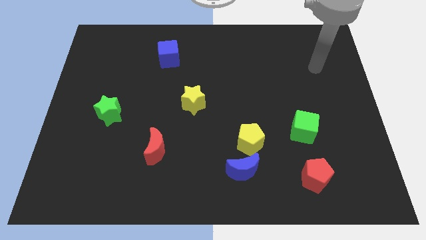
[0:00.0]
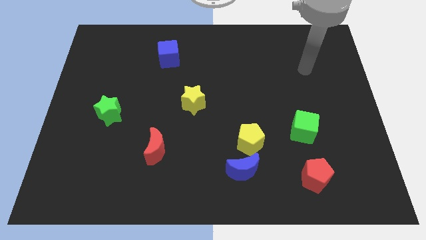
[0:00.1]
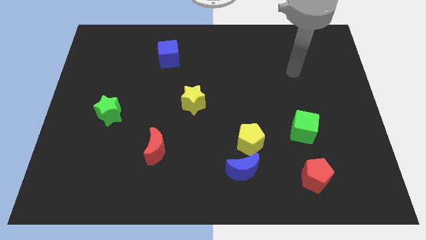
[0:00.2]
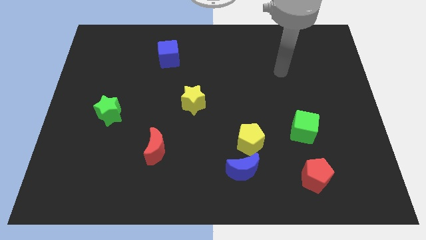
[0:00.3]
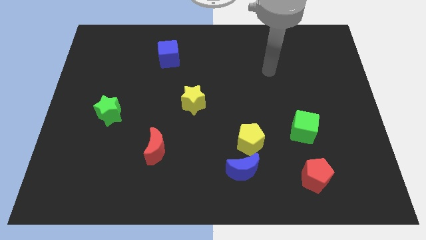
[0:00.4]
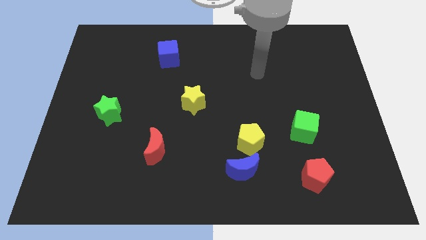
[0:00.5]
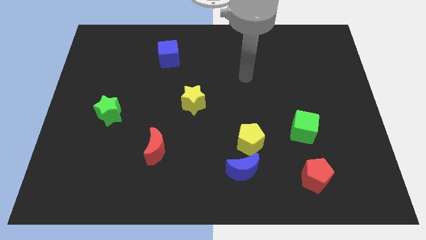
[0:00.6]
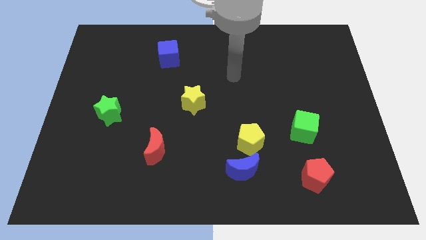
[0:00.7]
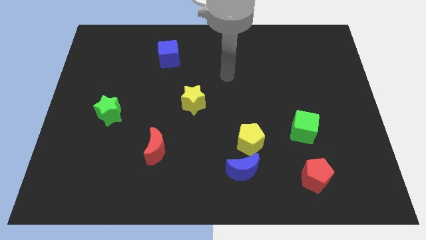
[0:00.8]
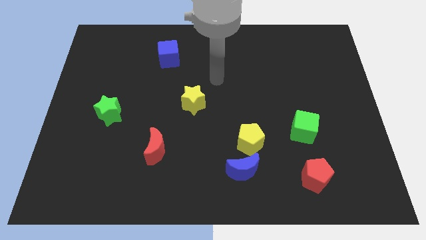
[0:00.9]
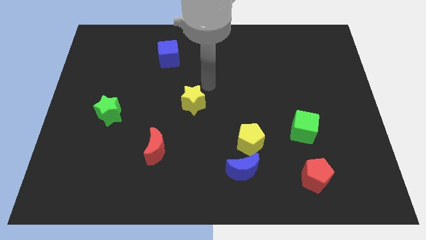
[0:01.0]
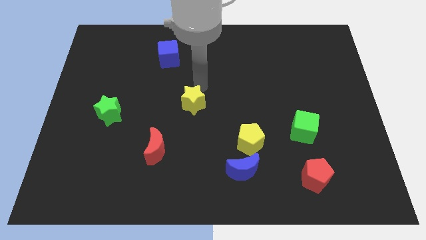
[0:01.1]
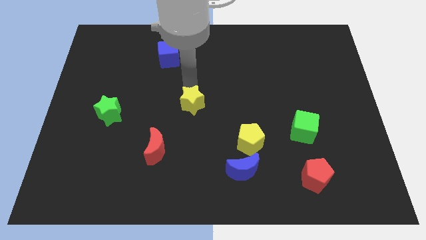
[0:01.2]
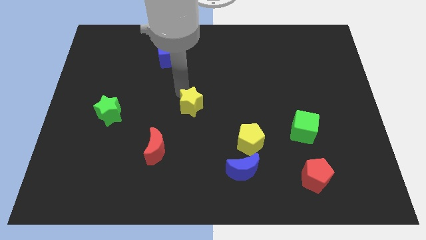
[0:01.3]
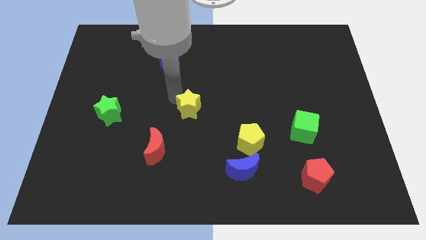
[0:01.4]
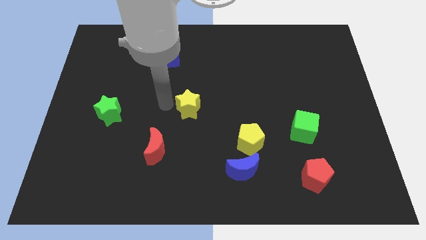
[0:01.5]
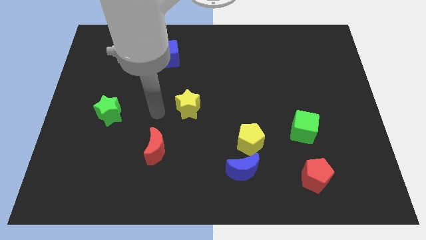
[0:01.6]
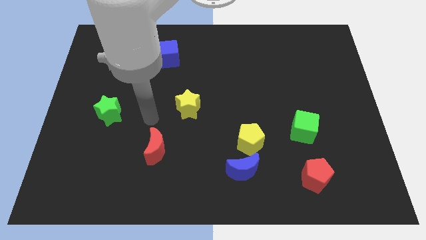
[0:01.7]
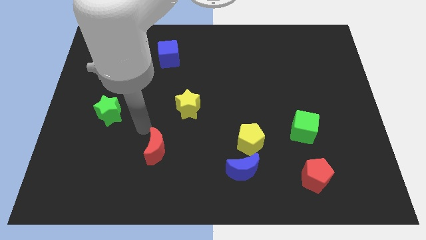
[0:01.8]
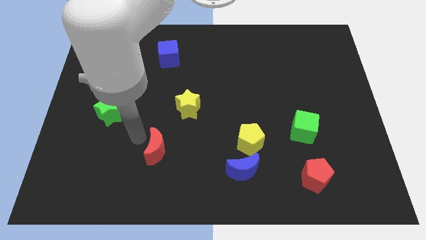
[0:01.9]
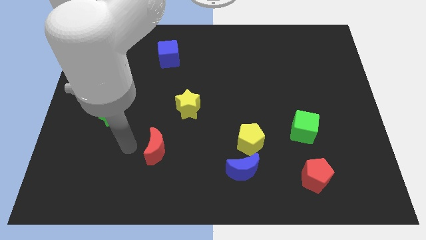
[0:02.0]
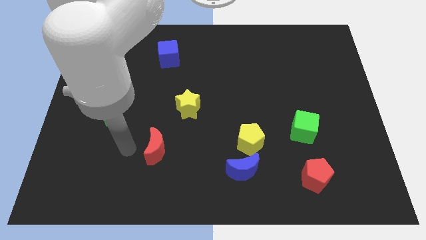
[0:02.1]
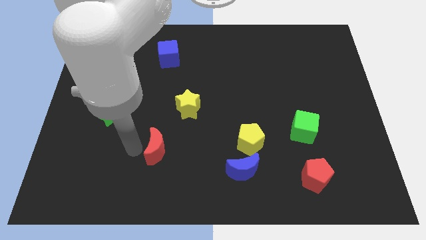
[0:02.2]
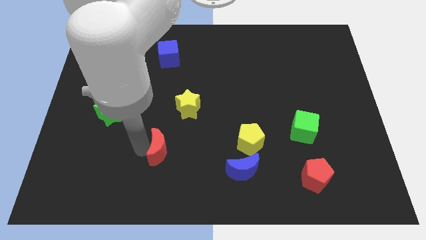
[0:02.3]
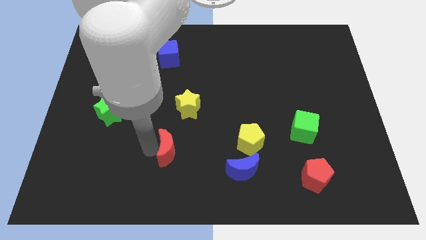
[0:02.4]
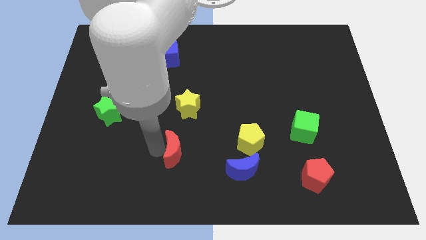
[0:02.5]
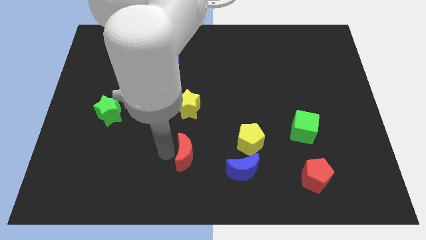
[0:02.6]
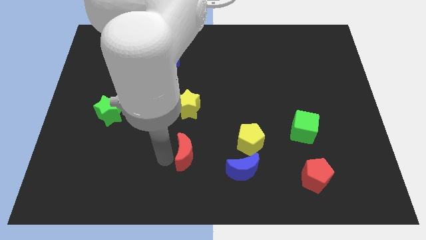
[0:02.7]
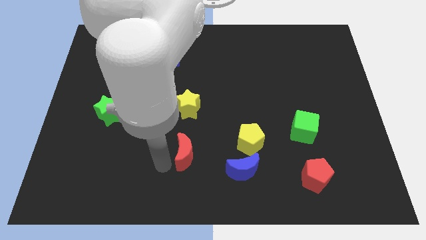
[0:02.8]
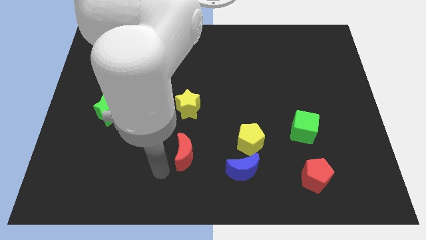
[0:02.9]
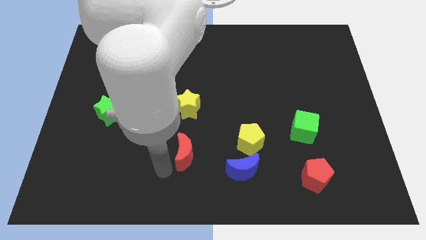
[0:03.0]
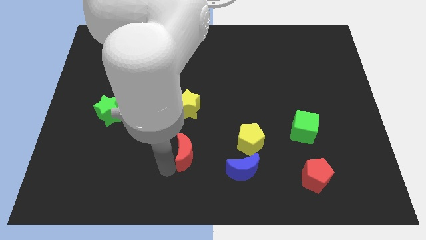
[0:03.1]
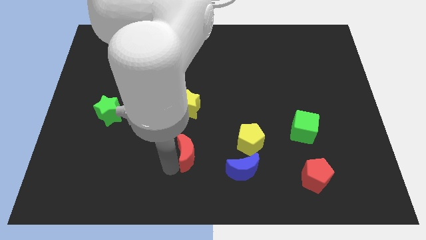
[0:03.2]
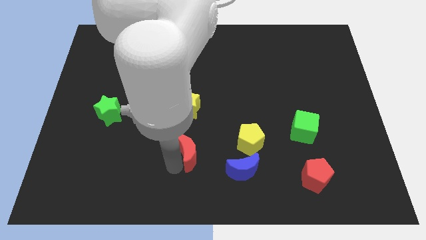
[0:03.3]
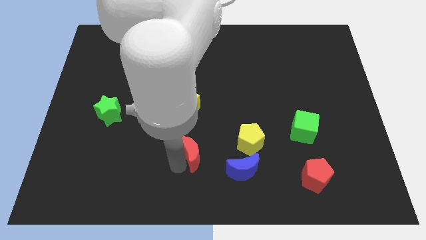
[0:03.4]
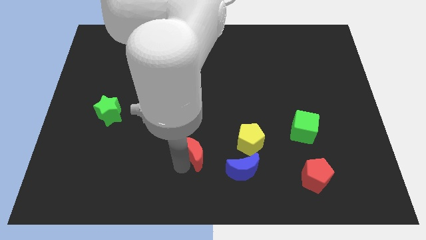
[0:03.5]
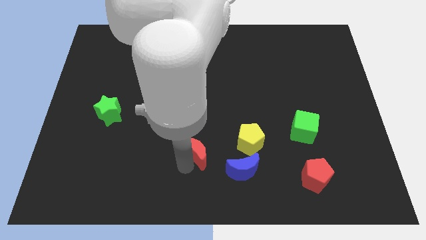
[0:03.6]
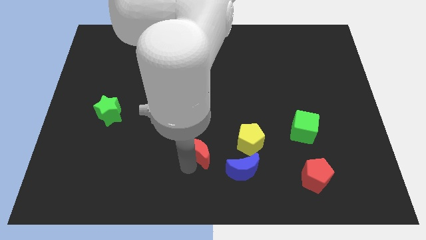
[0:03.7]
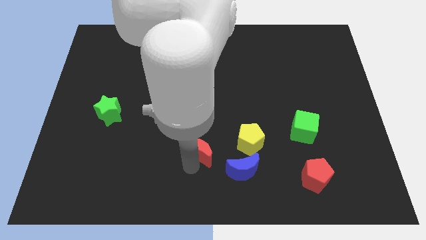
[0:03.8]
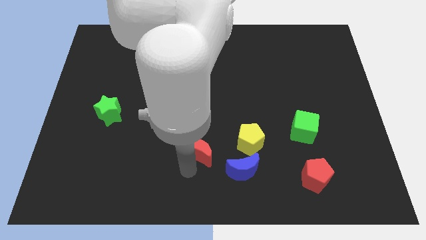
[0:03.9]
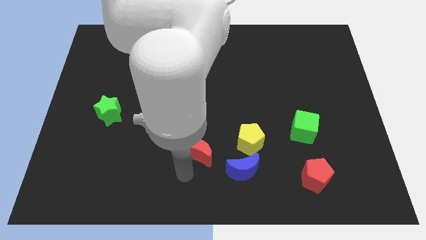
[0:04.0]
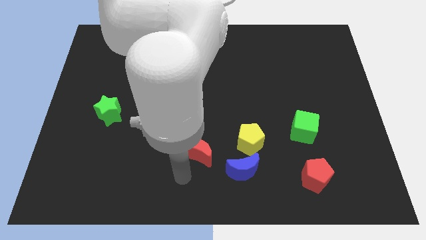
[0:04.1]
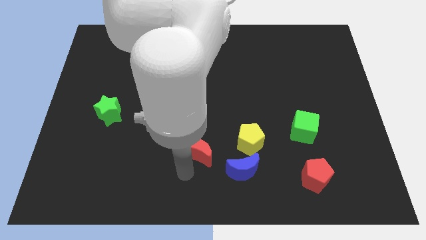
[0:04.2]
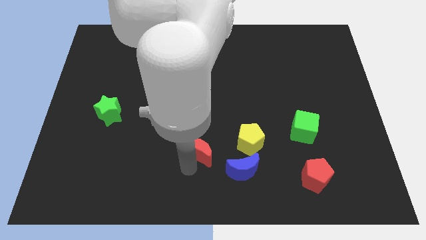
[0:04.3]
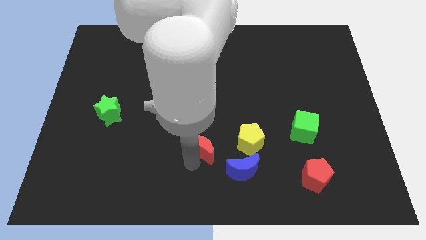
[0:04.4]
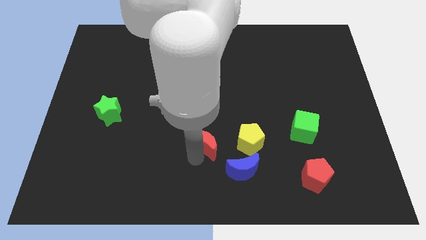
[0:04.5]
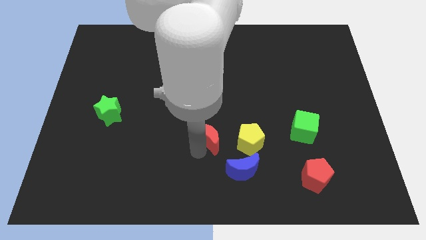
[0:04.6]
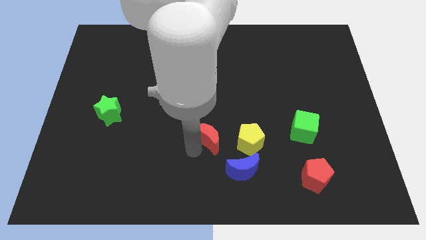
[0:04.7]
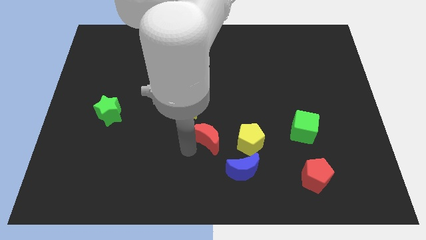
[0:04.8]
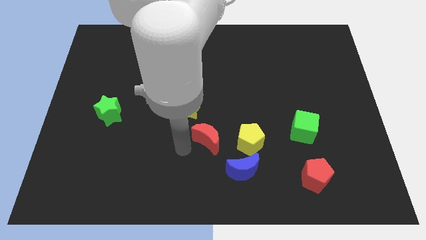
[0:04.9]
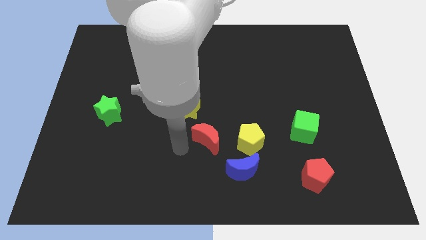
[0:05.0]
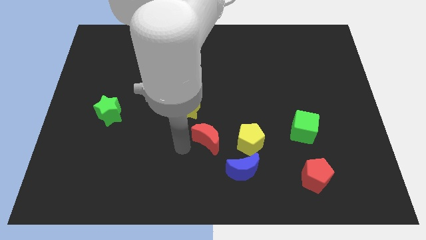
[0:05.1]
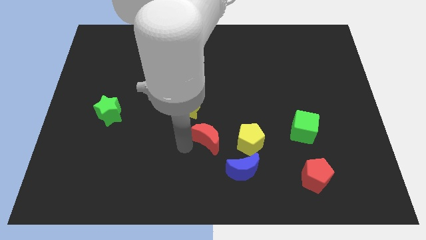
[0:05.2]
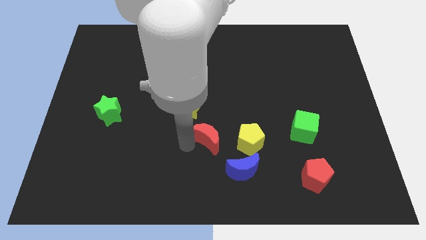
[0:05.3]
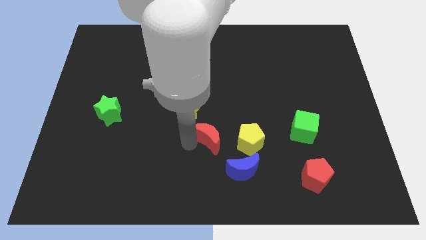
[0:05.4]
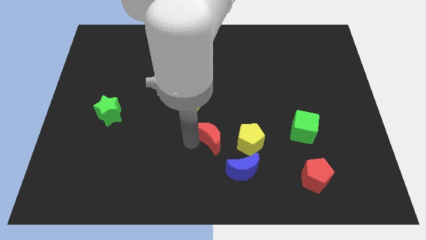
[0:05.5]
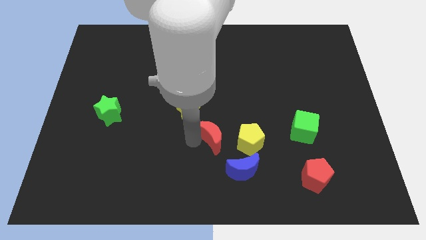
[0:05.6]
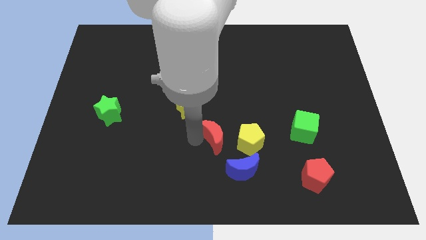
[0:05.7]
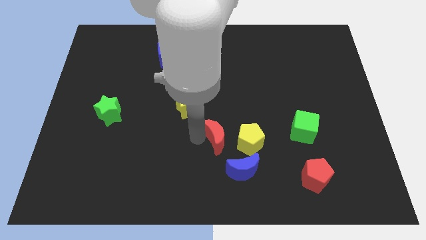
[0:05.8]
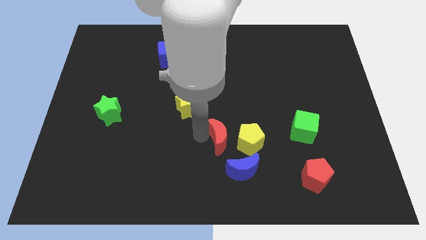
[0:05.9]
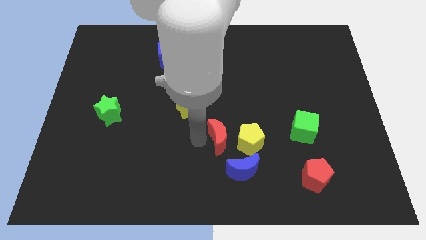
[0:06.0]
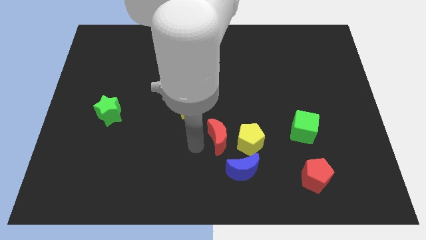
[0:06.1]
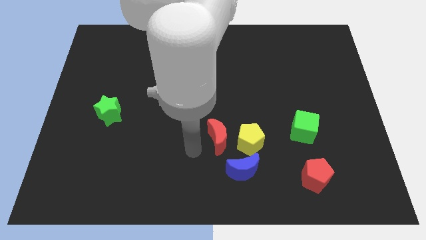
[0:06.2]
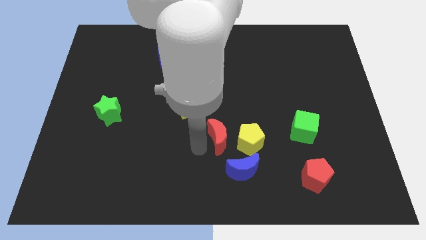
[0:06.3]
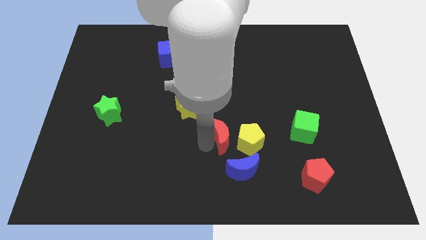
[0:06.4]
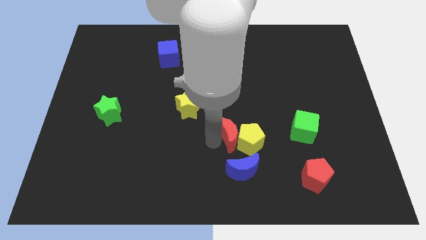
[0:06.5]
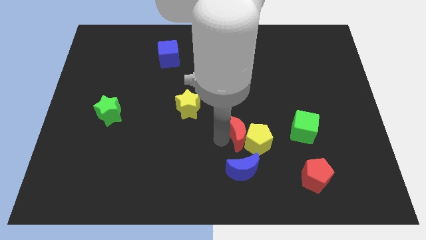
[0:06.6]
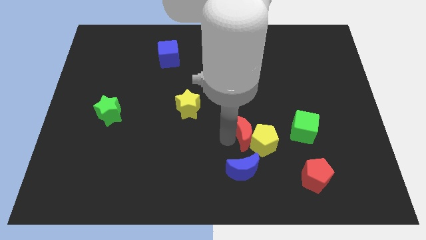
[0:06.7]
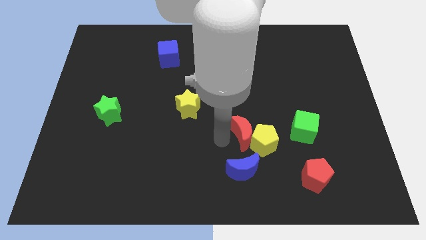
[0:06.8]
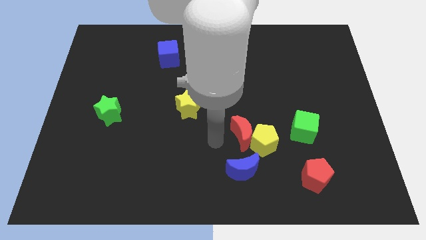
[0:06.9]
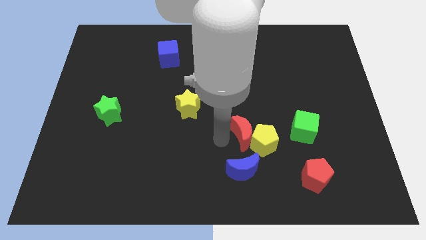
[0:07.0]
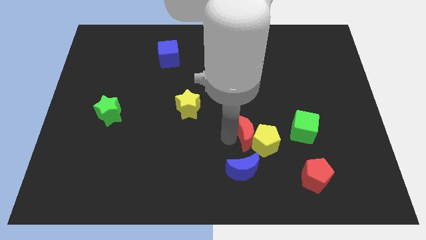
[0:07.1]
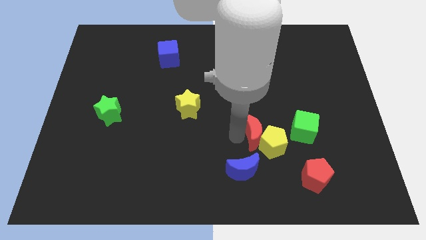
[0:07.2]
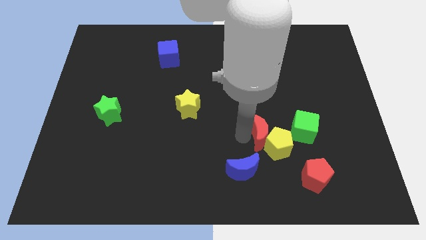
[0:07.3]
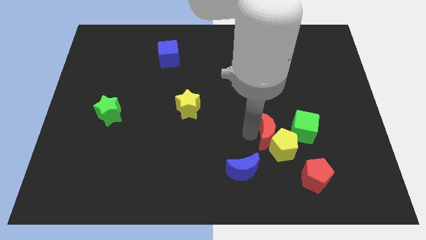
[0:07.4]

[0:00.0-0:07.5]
push the red moon to the bottom left side of the green cube
